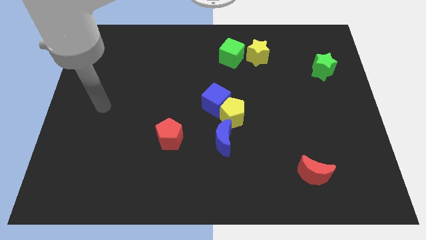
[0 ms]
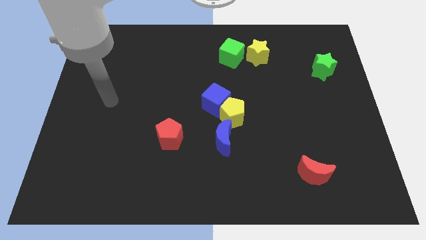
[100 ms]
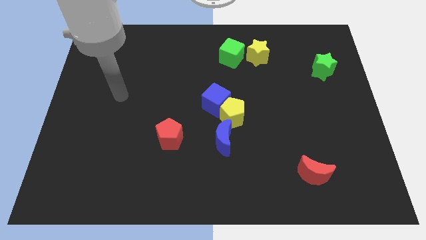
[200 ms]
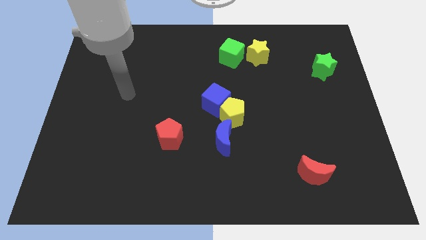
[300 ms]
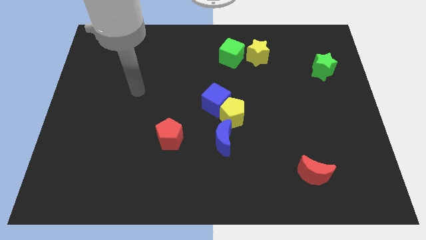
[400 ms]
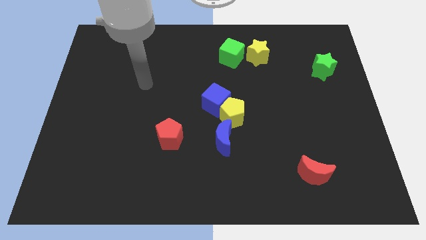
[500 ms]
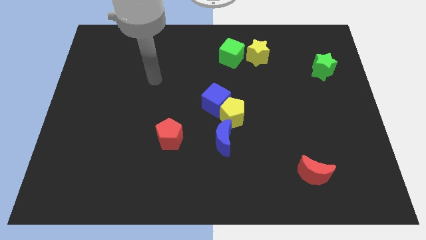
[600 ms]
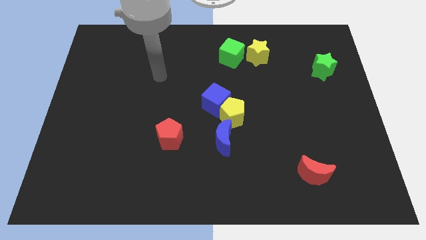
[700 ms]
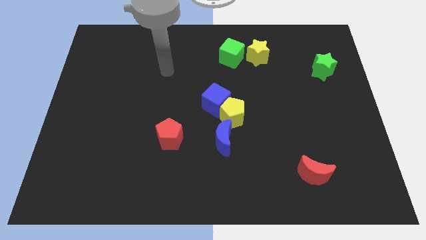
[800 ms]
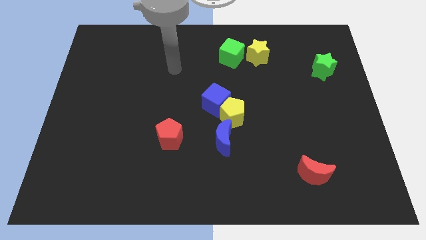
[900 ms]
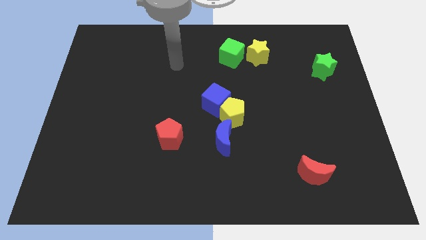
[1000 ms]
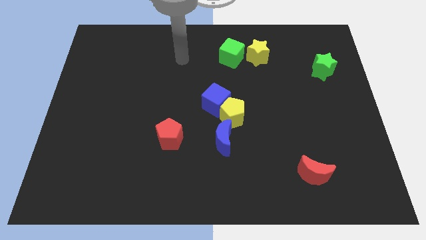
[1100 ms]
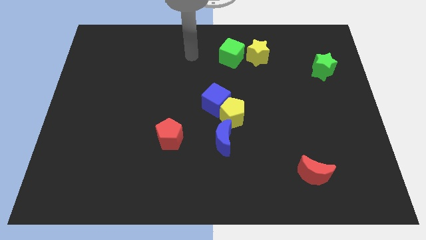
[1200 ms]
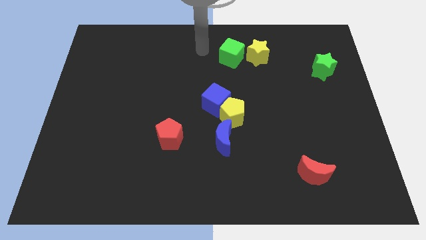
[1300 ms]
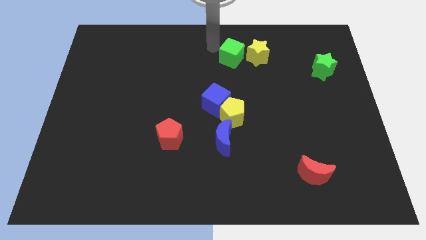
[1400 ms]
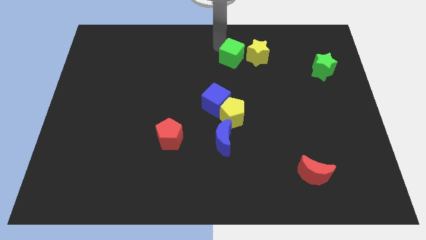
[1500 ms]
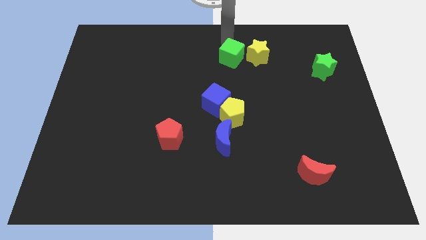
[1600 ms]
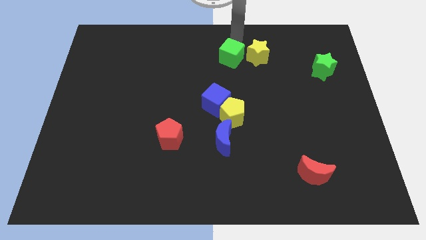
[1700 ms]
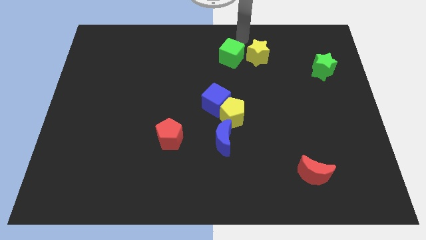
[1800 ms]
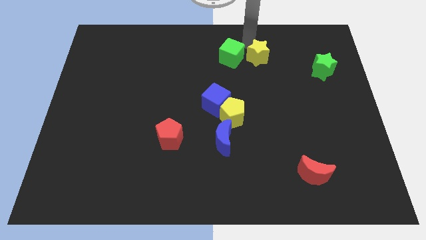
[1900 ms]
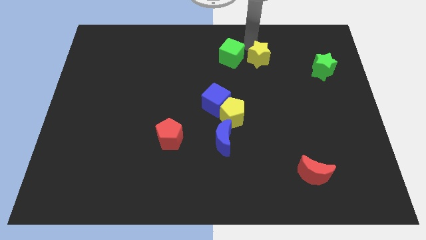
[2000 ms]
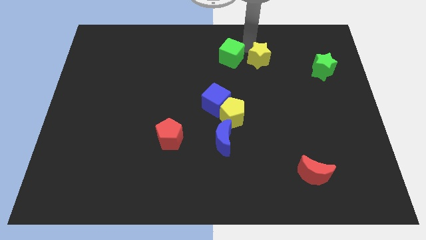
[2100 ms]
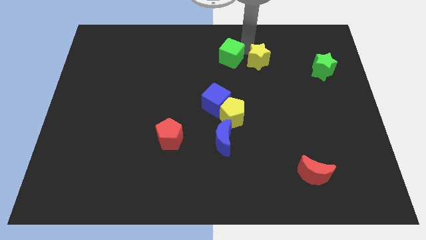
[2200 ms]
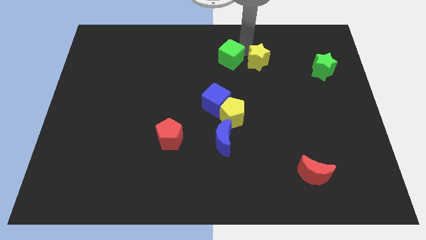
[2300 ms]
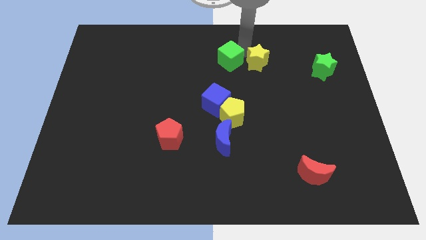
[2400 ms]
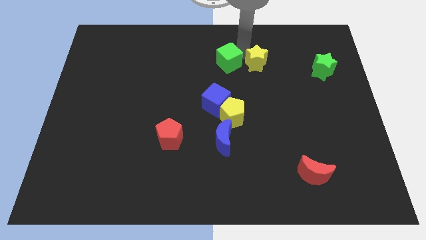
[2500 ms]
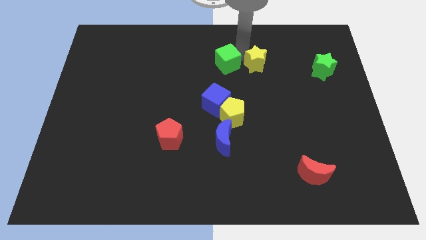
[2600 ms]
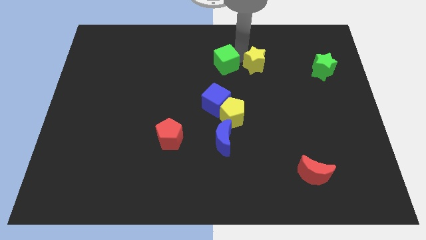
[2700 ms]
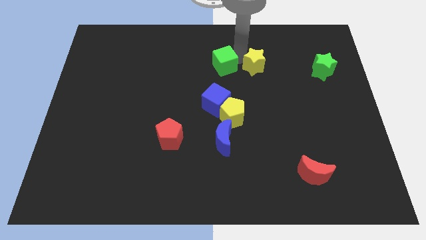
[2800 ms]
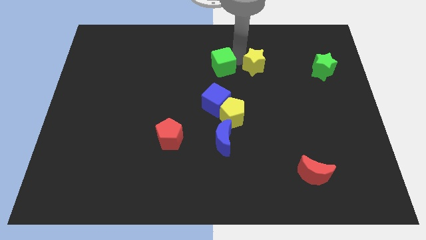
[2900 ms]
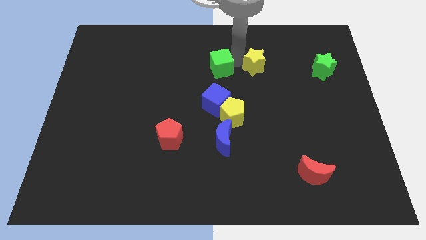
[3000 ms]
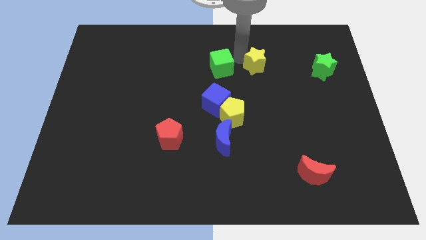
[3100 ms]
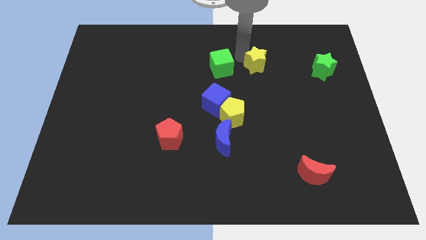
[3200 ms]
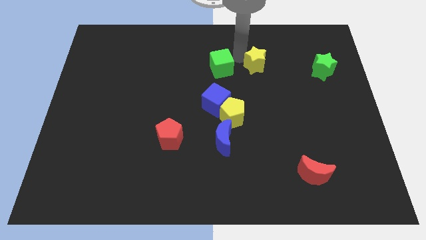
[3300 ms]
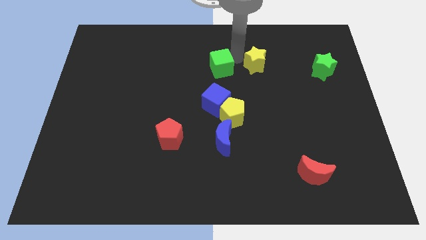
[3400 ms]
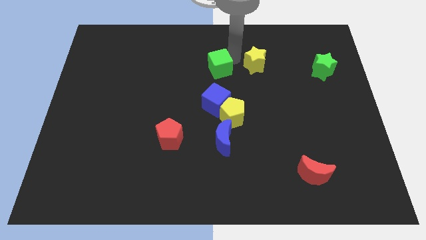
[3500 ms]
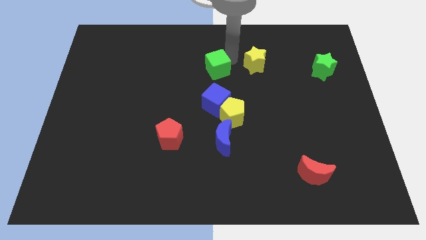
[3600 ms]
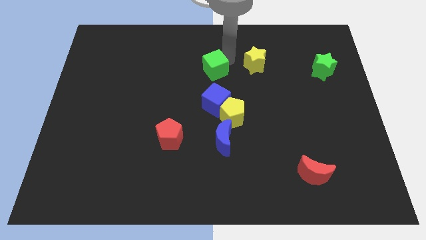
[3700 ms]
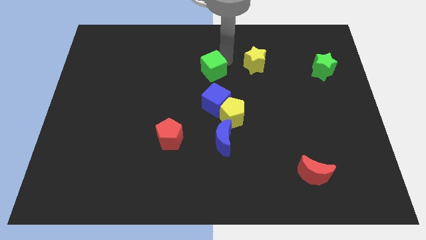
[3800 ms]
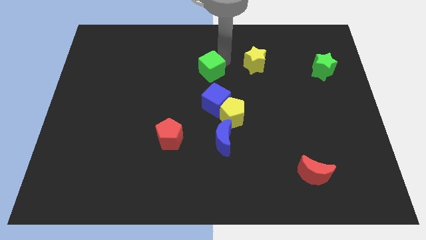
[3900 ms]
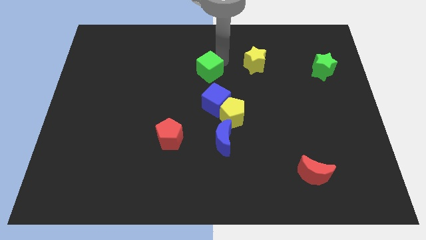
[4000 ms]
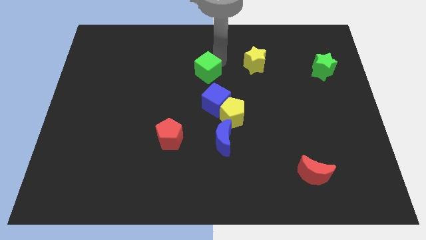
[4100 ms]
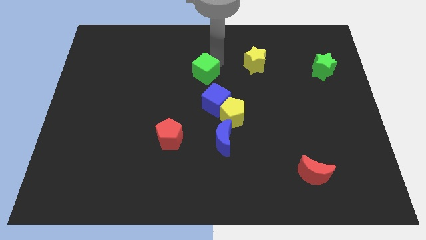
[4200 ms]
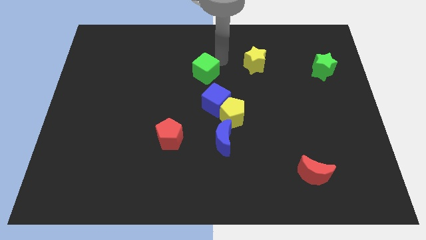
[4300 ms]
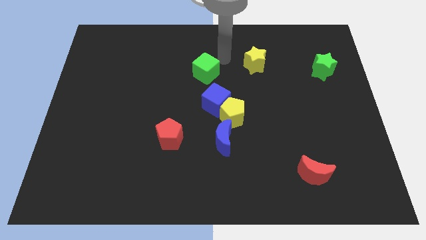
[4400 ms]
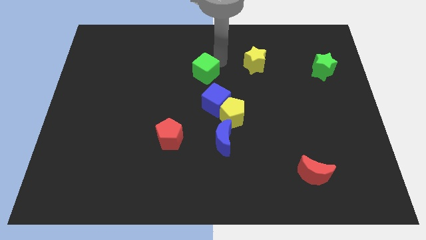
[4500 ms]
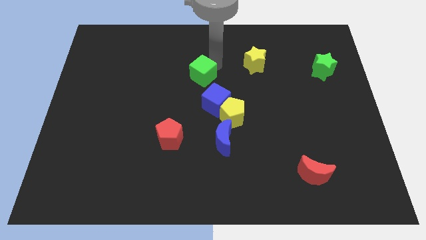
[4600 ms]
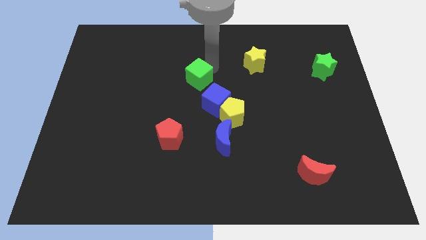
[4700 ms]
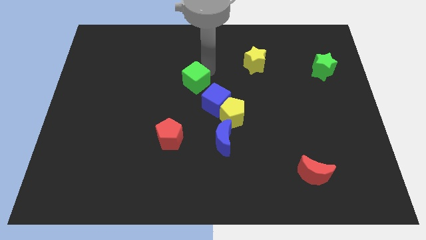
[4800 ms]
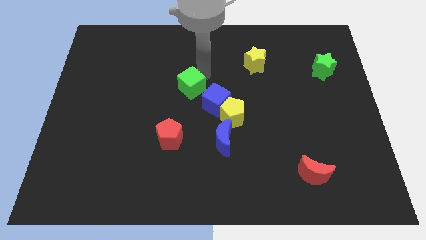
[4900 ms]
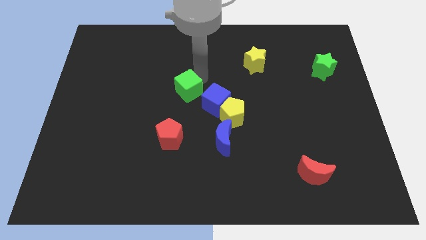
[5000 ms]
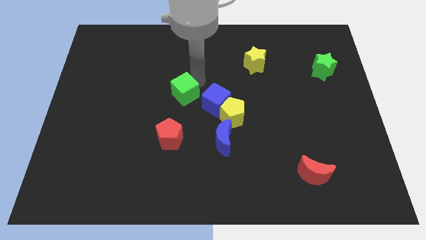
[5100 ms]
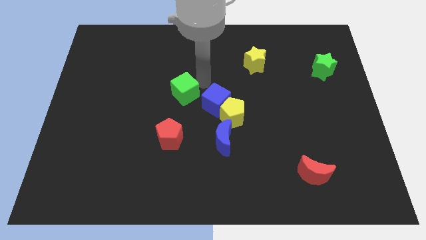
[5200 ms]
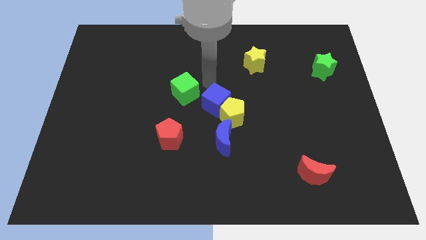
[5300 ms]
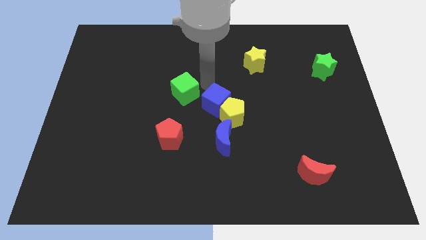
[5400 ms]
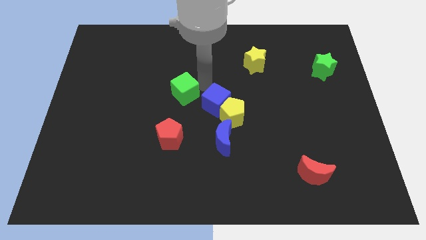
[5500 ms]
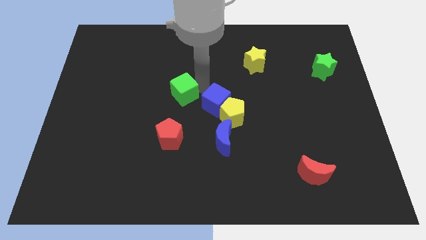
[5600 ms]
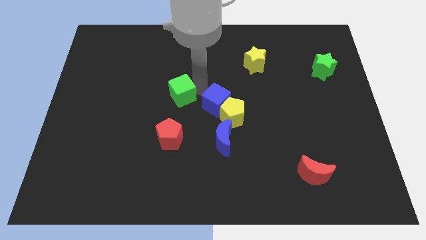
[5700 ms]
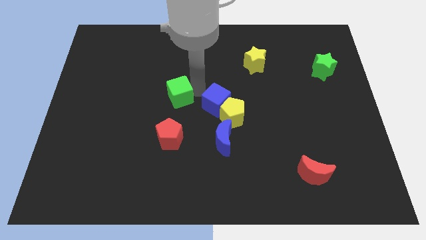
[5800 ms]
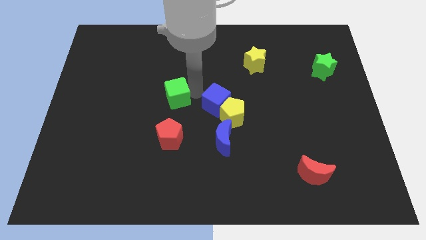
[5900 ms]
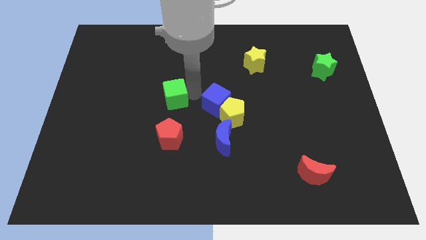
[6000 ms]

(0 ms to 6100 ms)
move the green cube downwards and then left

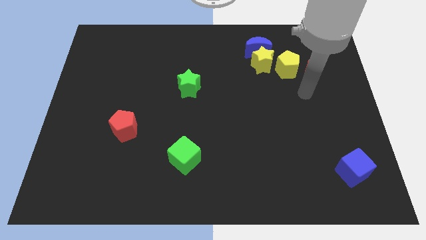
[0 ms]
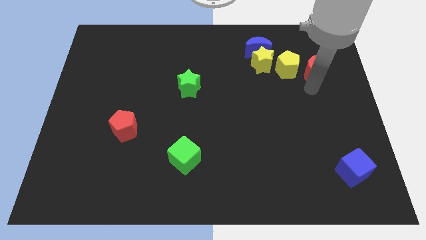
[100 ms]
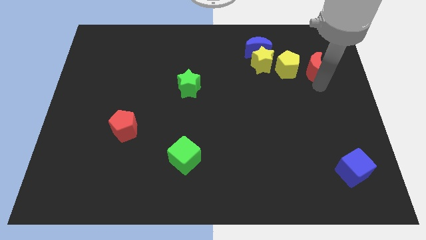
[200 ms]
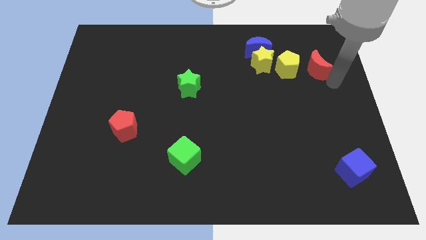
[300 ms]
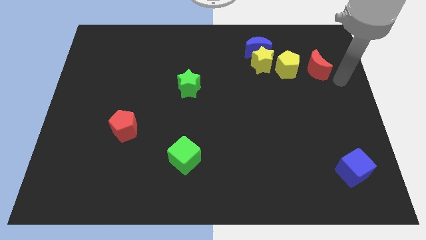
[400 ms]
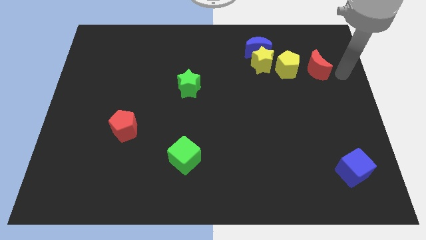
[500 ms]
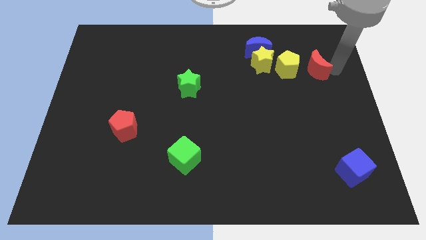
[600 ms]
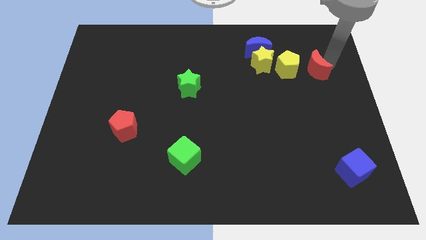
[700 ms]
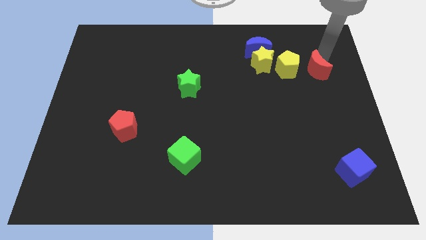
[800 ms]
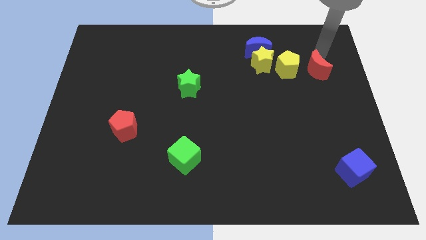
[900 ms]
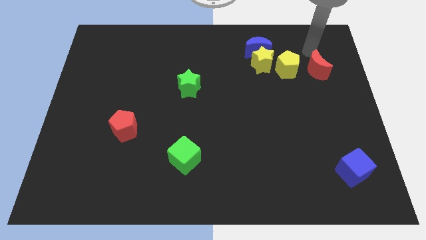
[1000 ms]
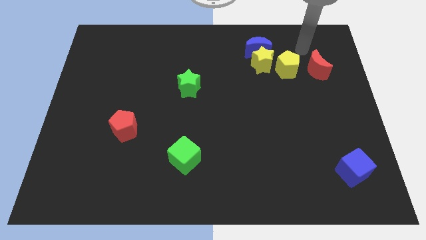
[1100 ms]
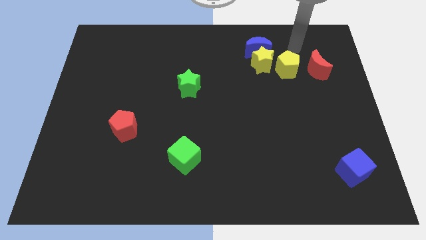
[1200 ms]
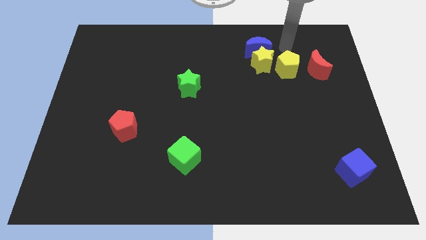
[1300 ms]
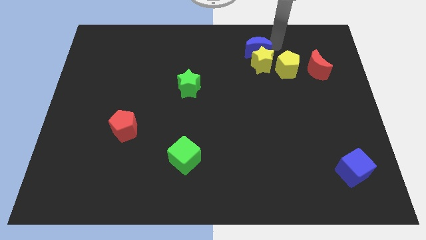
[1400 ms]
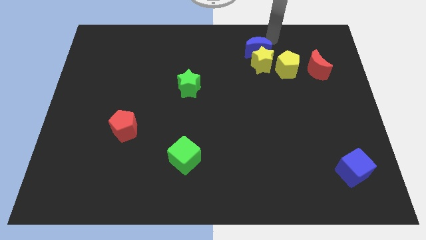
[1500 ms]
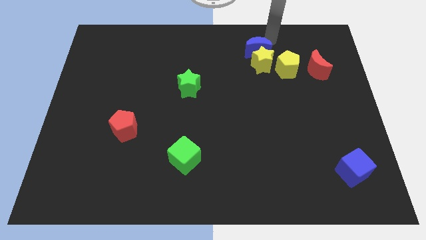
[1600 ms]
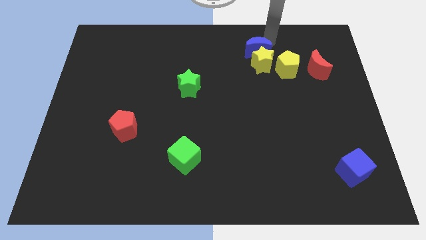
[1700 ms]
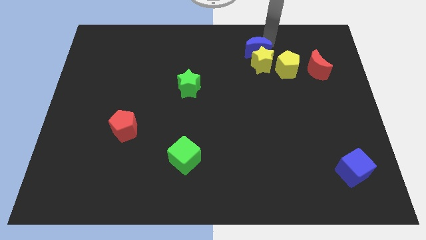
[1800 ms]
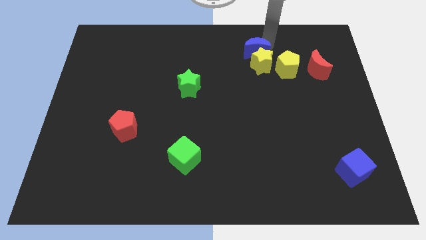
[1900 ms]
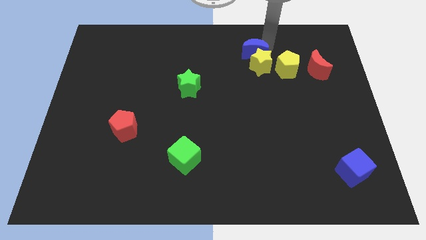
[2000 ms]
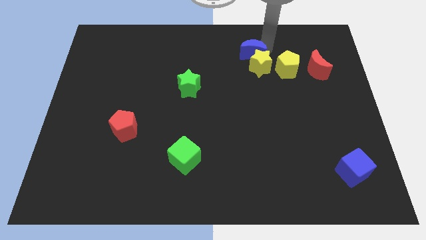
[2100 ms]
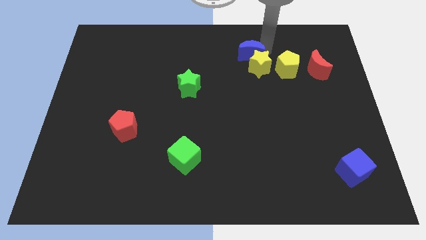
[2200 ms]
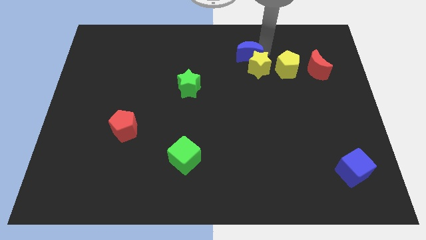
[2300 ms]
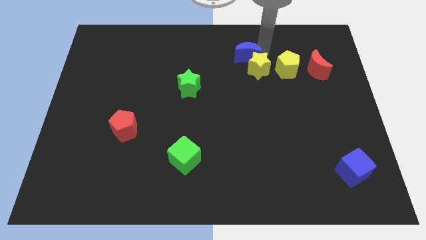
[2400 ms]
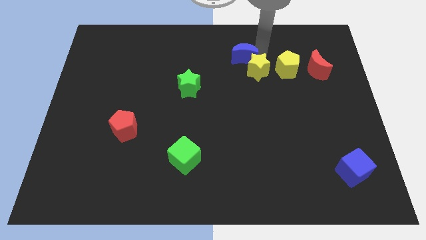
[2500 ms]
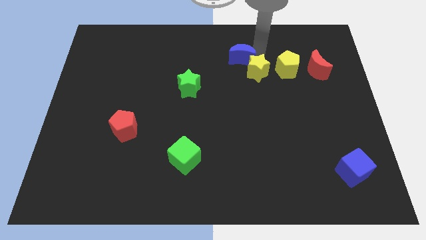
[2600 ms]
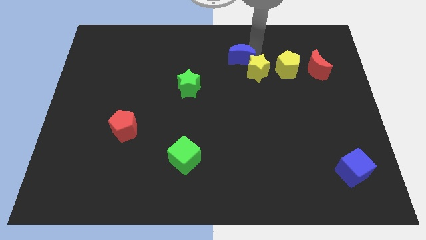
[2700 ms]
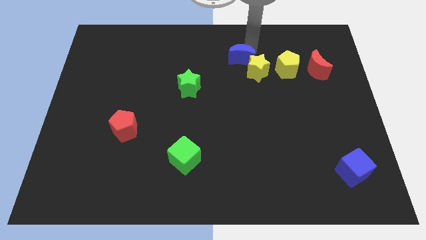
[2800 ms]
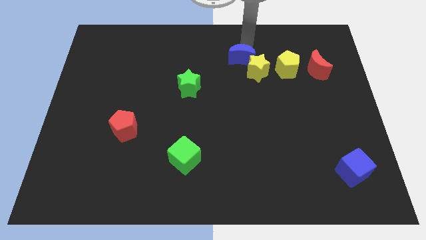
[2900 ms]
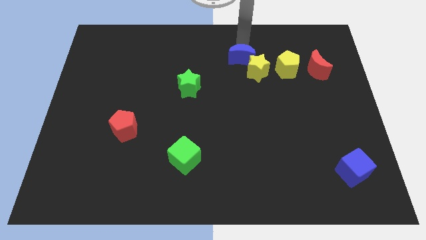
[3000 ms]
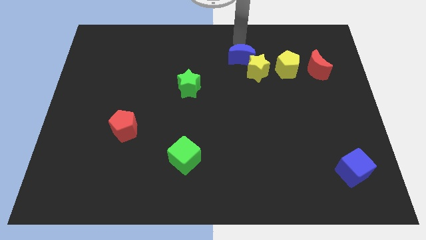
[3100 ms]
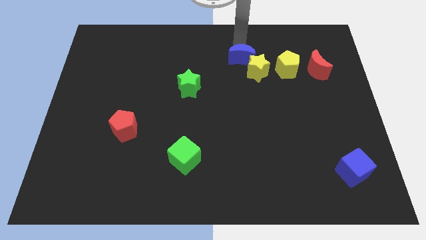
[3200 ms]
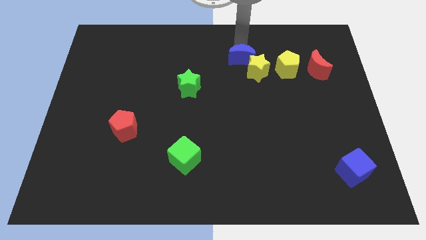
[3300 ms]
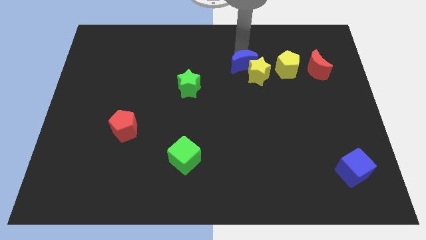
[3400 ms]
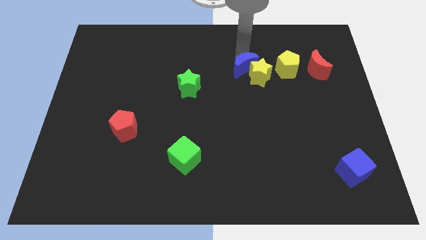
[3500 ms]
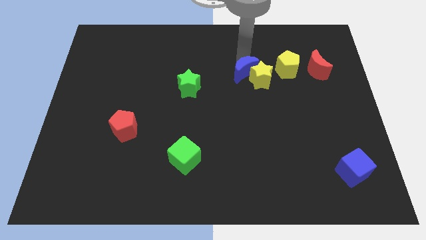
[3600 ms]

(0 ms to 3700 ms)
slide the blue moon somewhat down
